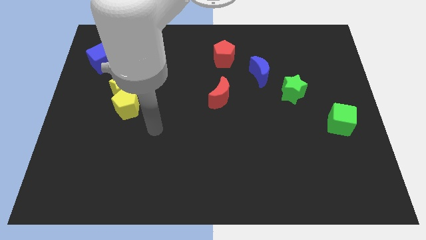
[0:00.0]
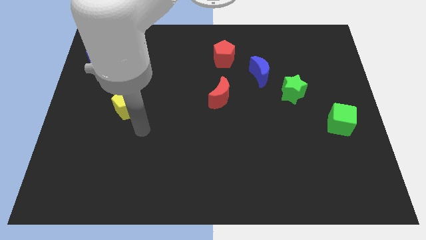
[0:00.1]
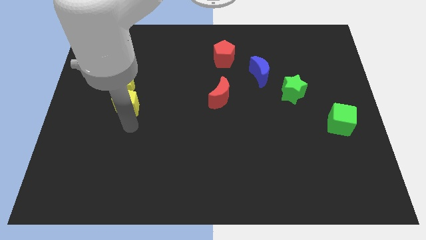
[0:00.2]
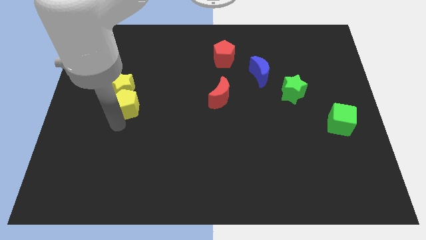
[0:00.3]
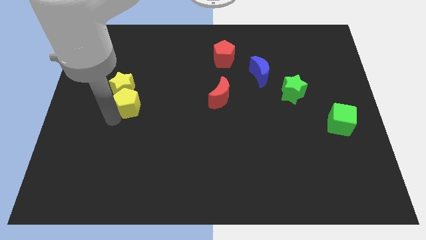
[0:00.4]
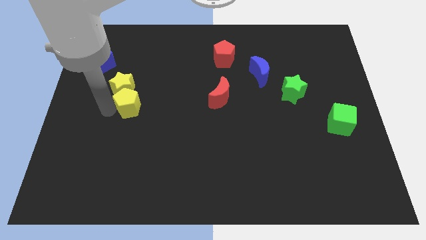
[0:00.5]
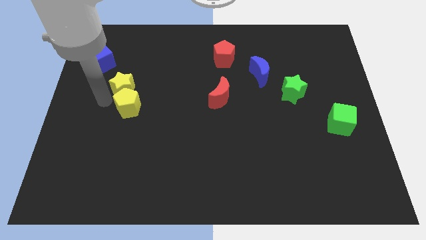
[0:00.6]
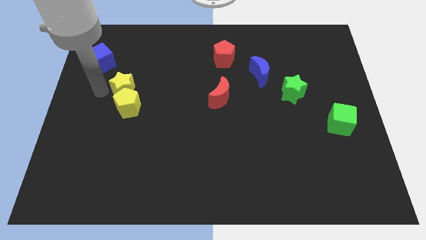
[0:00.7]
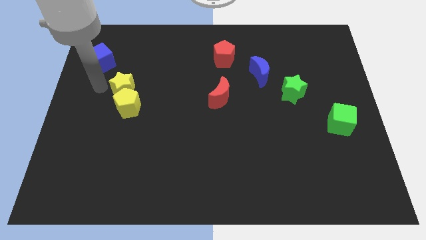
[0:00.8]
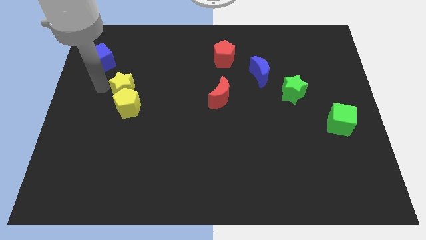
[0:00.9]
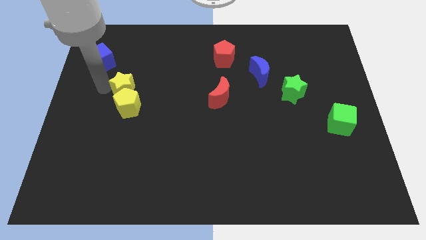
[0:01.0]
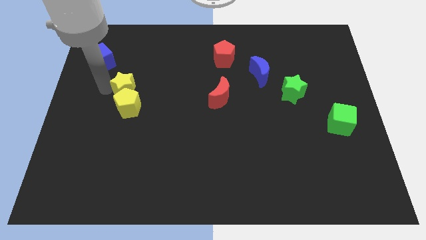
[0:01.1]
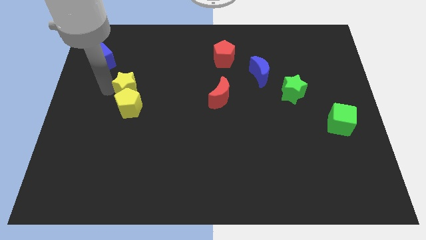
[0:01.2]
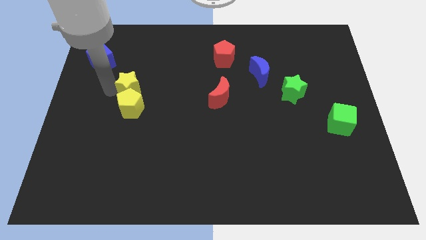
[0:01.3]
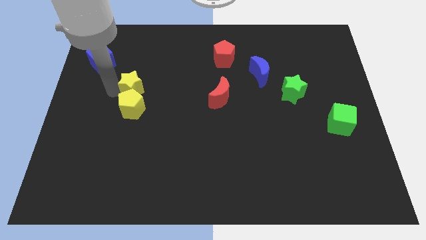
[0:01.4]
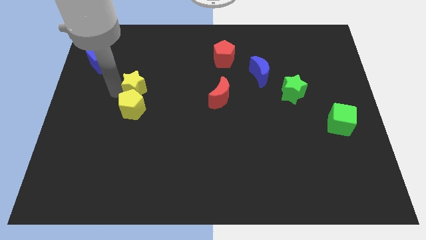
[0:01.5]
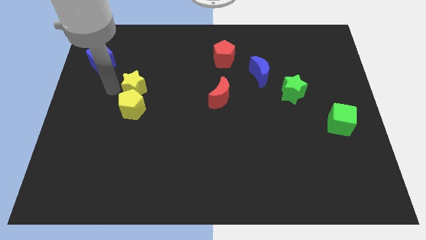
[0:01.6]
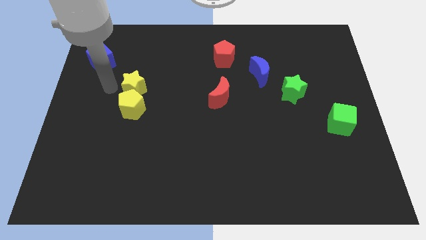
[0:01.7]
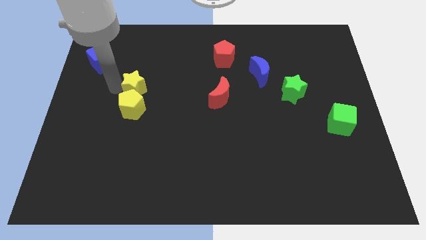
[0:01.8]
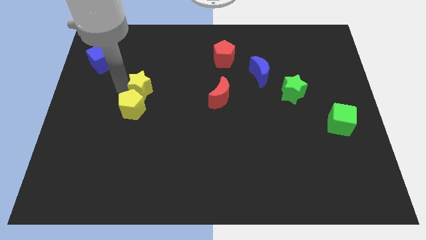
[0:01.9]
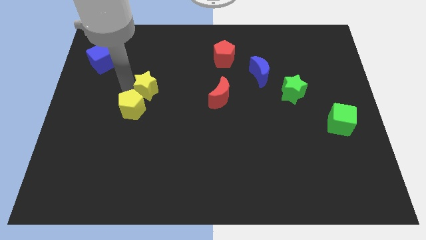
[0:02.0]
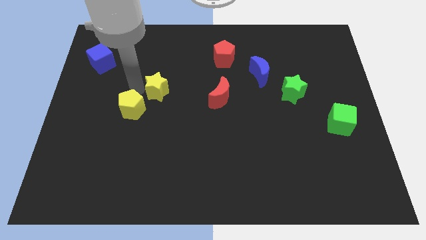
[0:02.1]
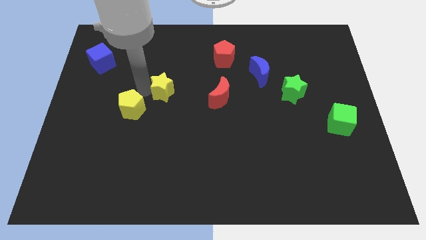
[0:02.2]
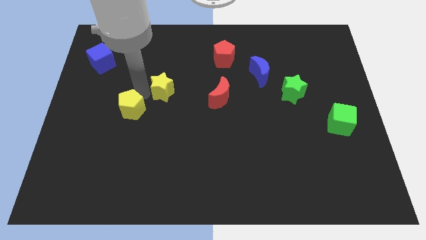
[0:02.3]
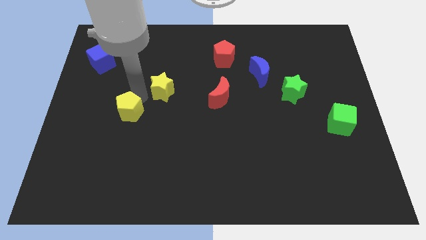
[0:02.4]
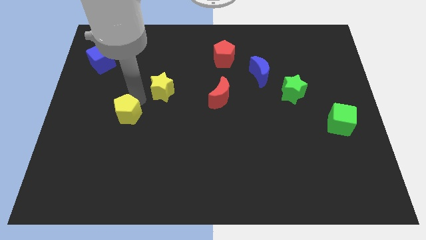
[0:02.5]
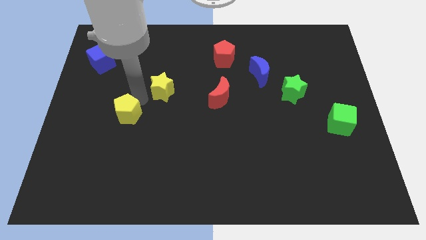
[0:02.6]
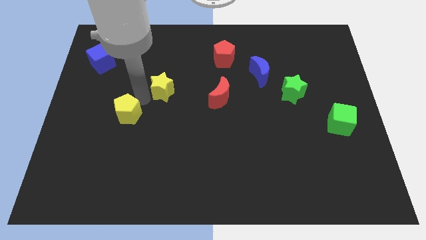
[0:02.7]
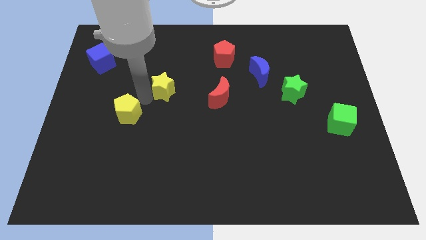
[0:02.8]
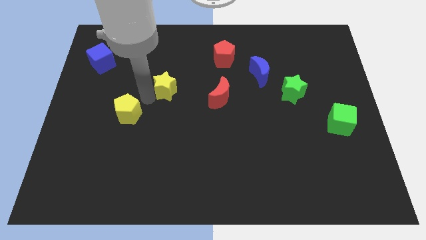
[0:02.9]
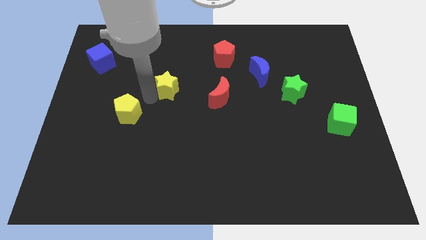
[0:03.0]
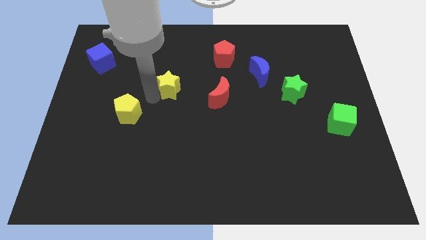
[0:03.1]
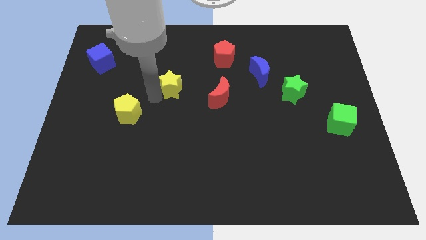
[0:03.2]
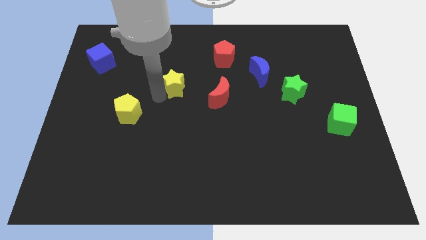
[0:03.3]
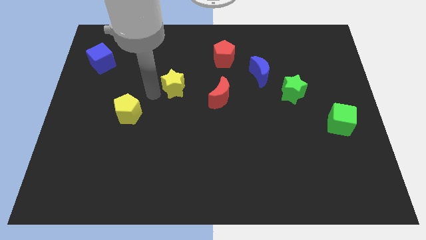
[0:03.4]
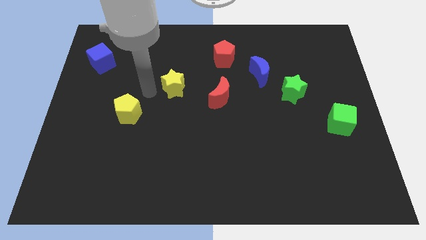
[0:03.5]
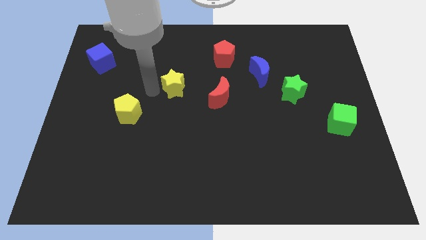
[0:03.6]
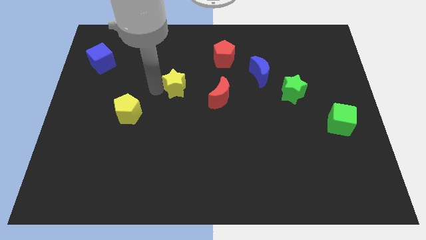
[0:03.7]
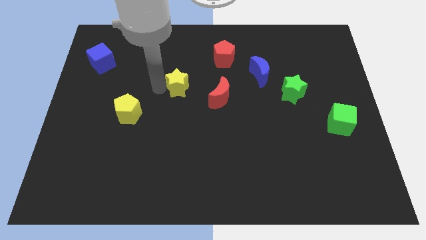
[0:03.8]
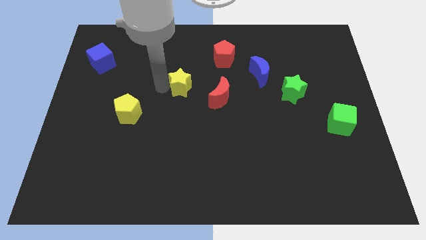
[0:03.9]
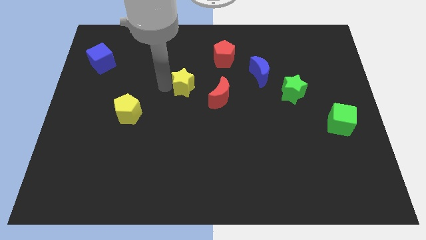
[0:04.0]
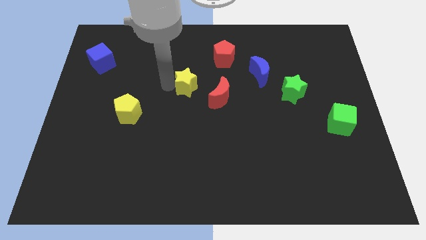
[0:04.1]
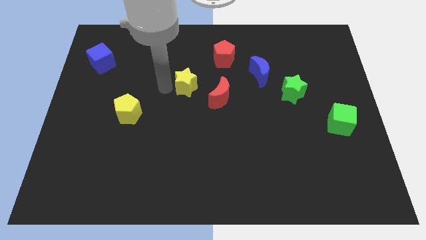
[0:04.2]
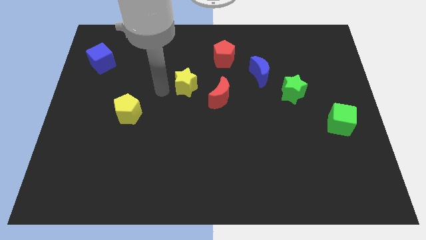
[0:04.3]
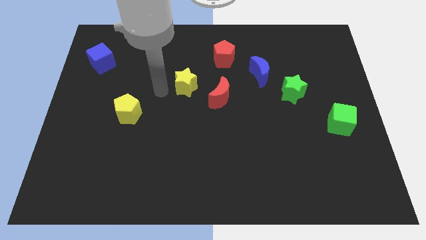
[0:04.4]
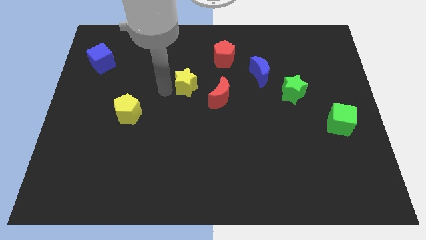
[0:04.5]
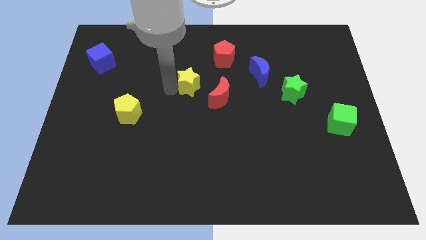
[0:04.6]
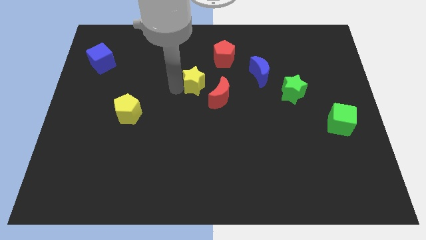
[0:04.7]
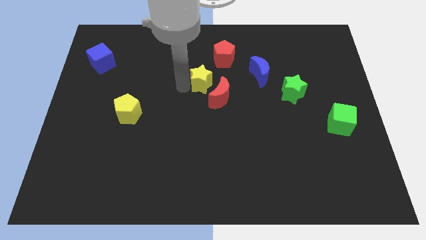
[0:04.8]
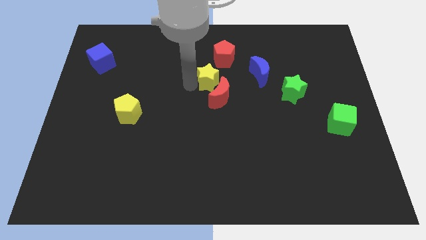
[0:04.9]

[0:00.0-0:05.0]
slide the yellow star to the right

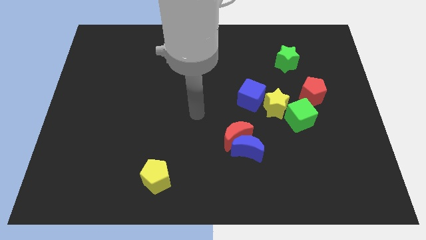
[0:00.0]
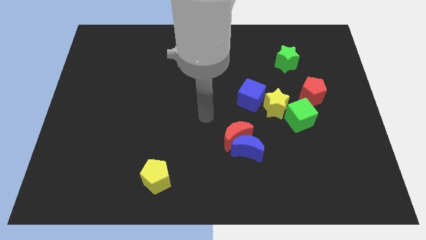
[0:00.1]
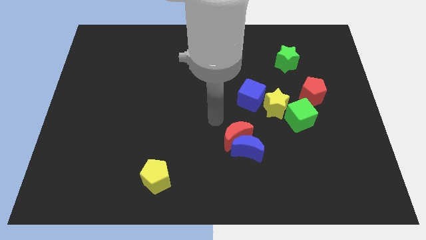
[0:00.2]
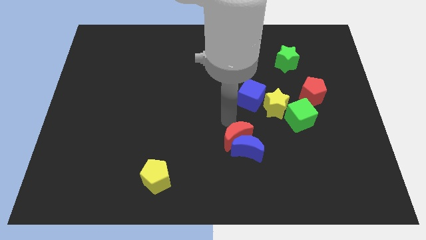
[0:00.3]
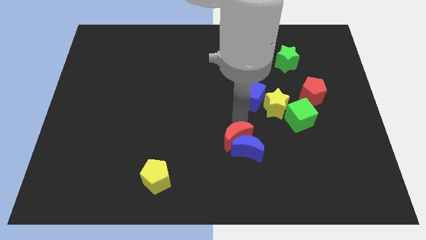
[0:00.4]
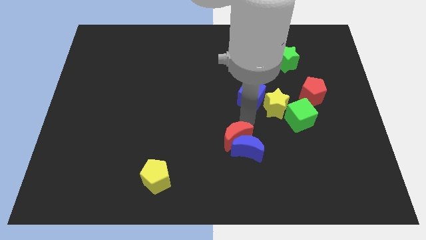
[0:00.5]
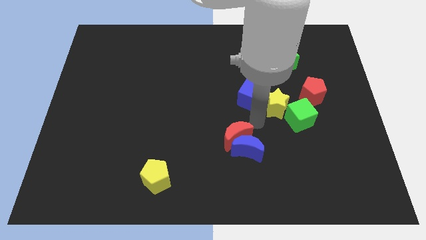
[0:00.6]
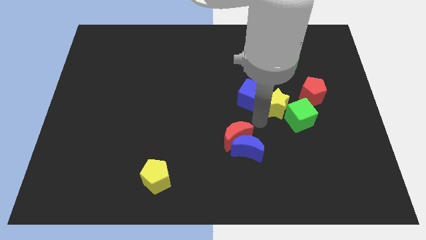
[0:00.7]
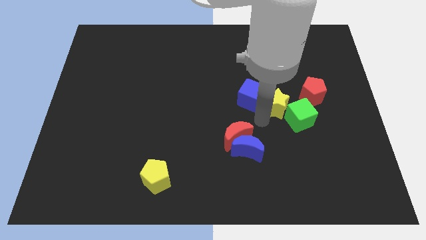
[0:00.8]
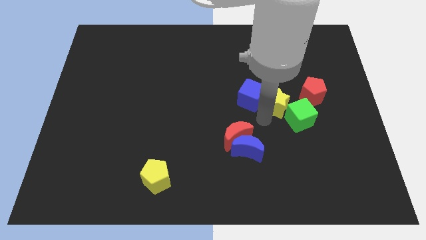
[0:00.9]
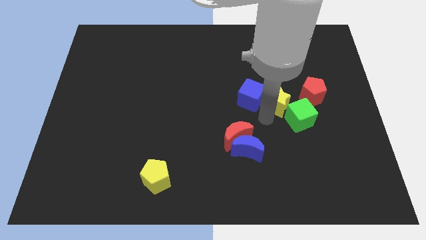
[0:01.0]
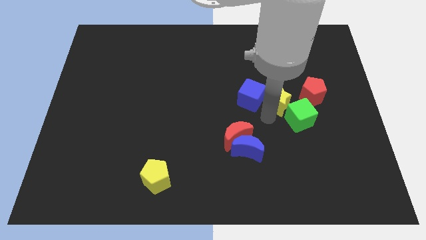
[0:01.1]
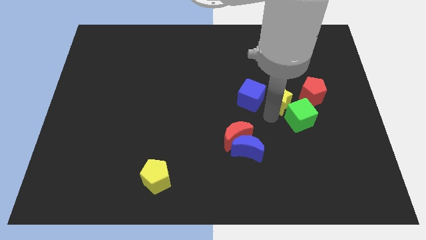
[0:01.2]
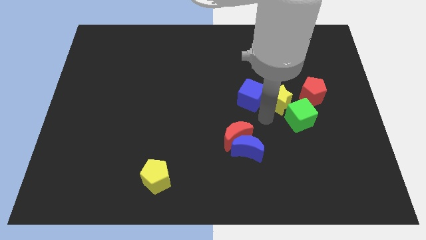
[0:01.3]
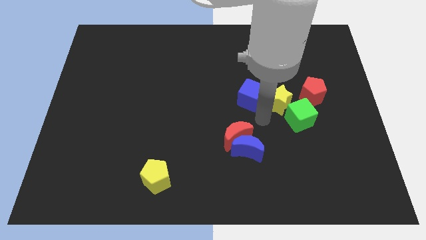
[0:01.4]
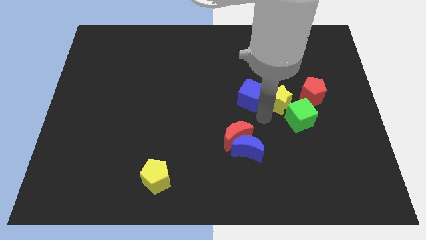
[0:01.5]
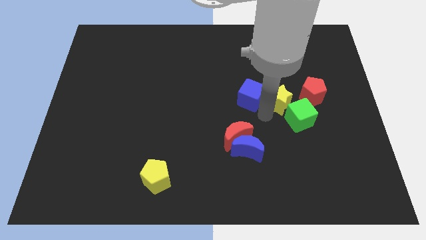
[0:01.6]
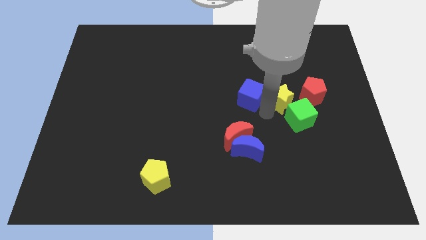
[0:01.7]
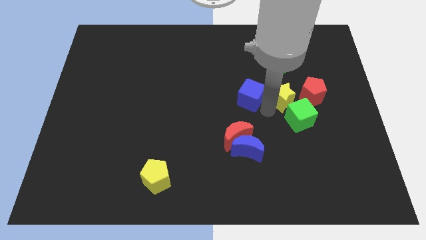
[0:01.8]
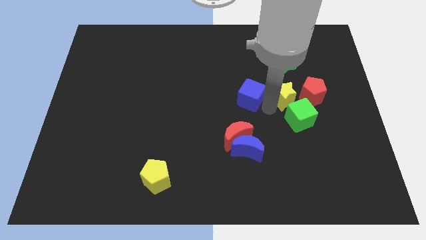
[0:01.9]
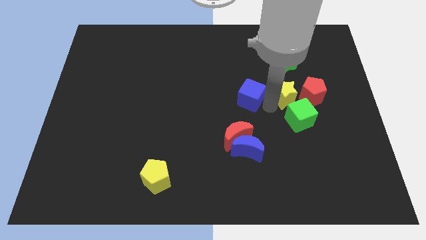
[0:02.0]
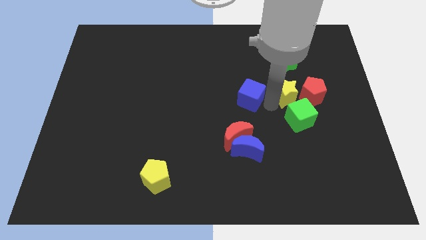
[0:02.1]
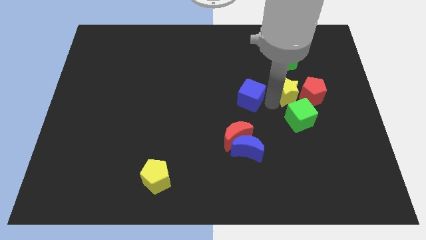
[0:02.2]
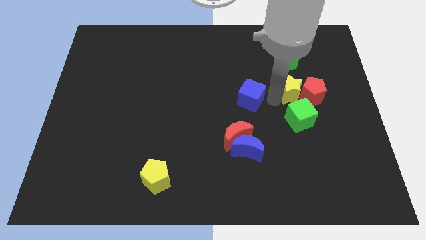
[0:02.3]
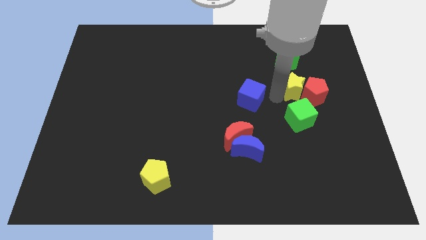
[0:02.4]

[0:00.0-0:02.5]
slide the yellow star up and then to the right a bit

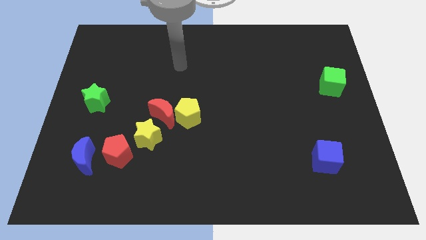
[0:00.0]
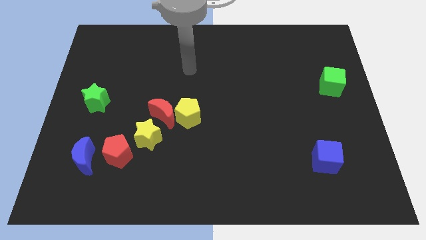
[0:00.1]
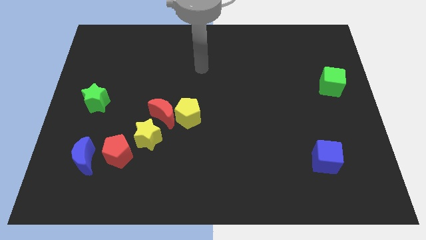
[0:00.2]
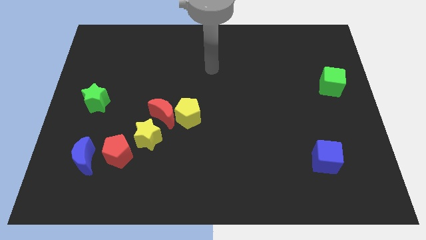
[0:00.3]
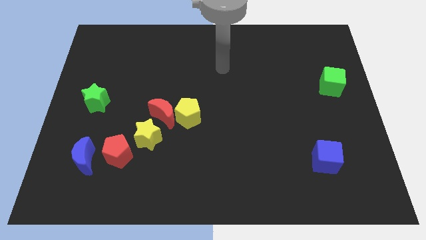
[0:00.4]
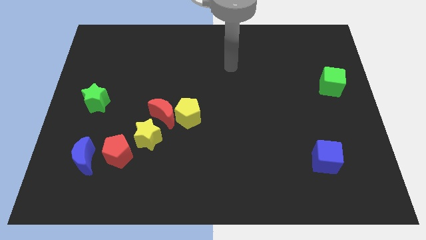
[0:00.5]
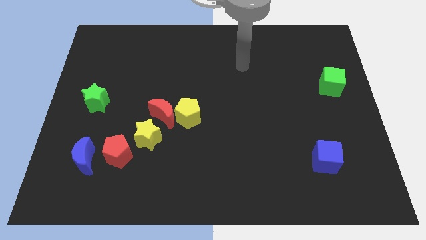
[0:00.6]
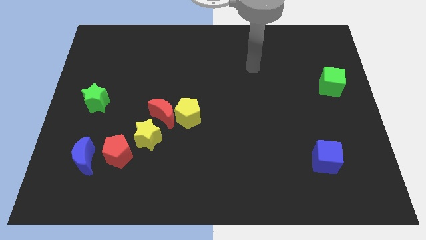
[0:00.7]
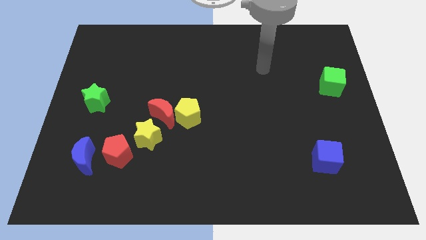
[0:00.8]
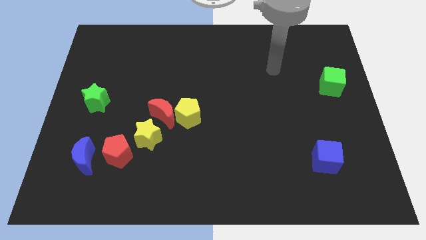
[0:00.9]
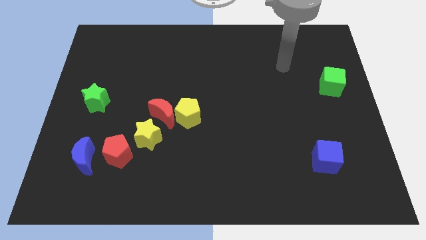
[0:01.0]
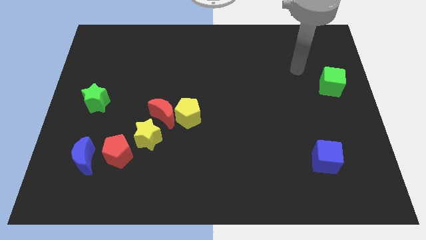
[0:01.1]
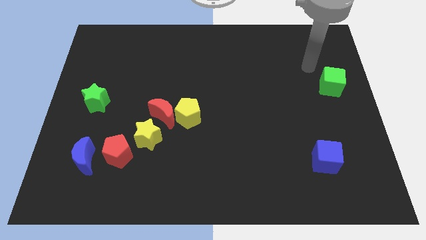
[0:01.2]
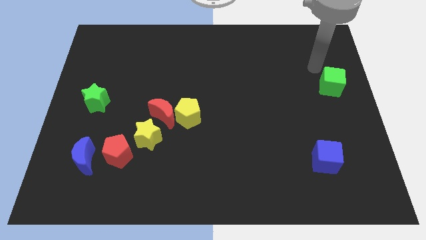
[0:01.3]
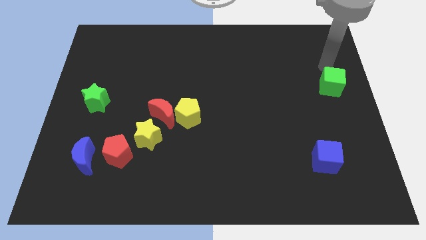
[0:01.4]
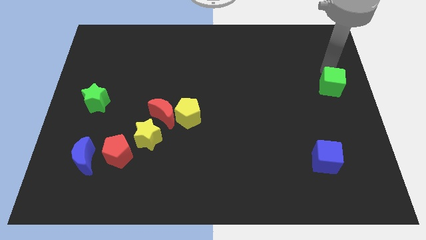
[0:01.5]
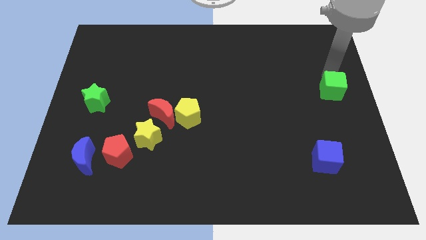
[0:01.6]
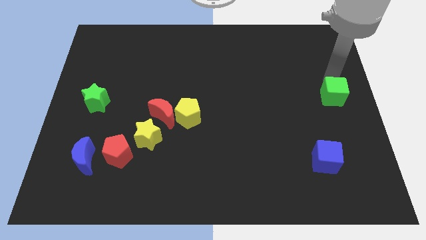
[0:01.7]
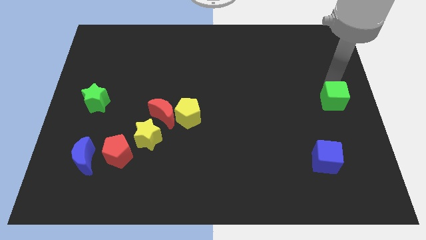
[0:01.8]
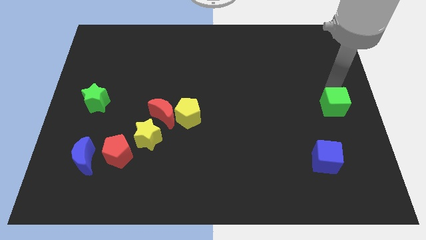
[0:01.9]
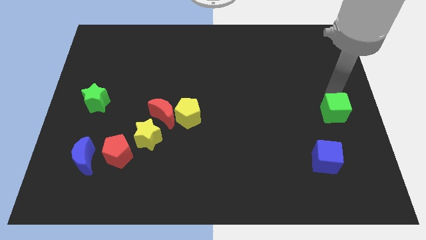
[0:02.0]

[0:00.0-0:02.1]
slightly slide the green cube down
